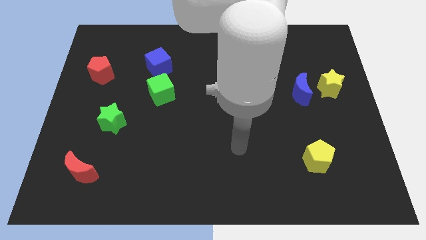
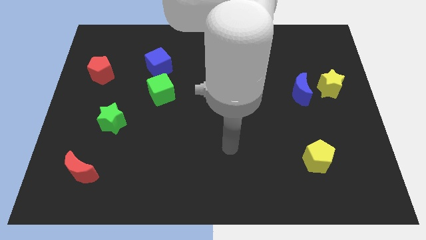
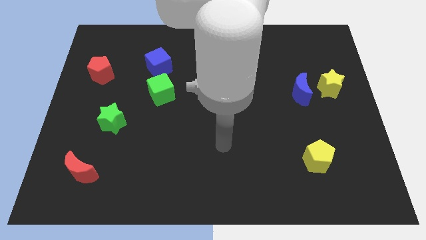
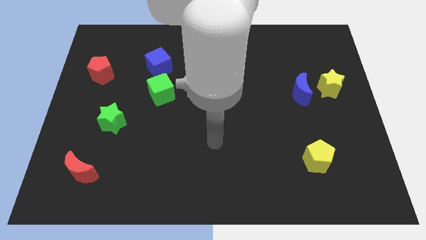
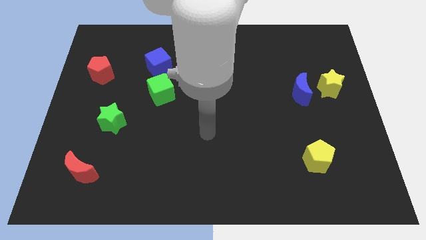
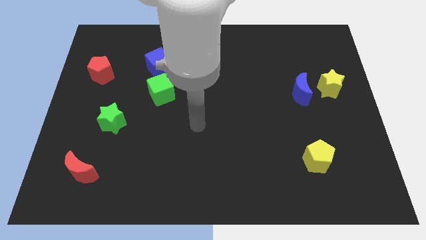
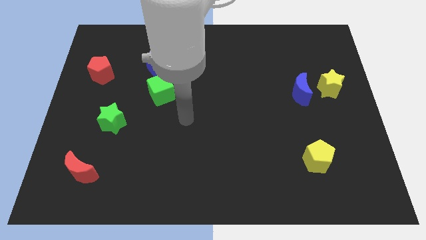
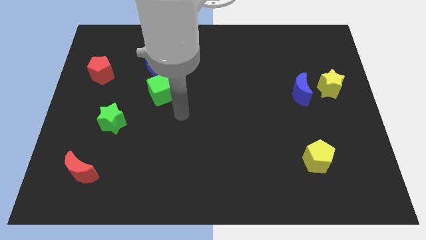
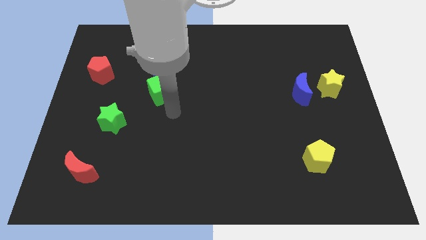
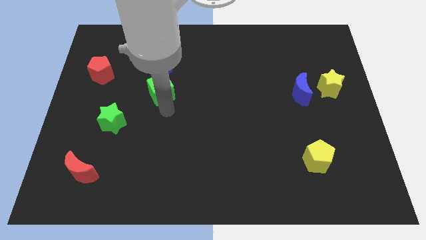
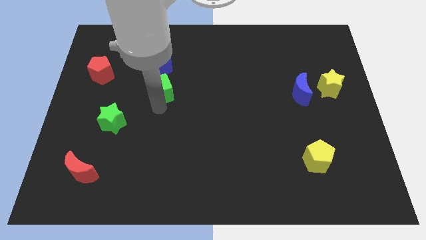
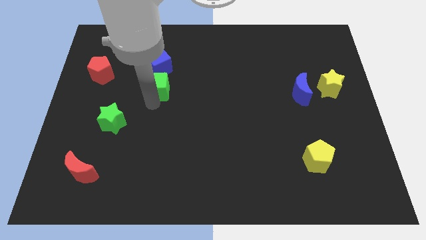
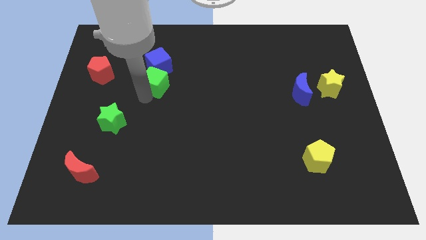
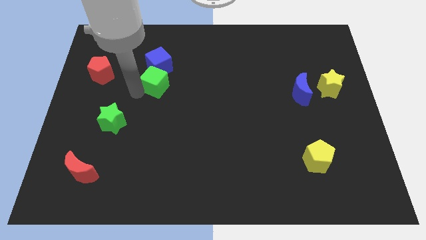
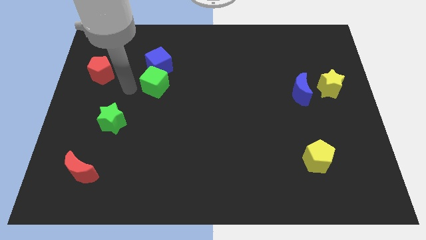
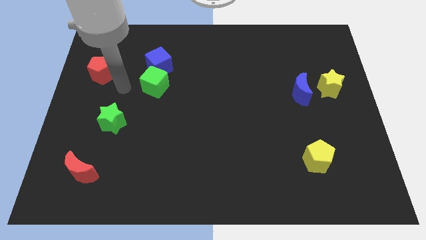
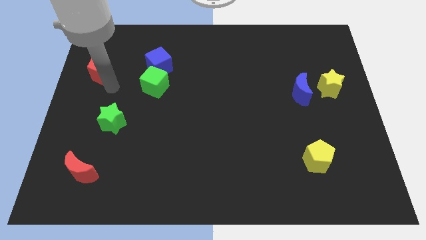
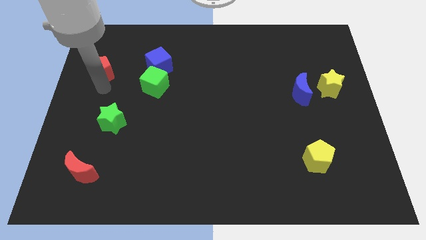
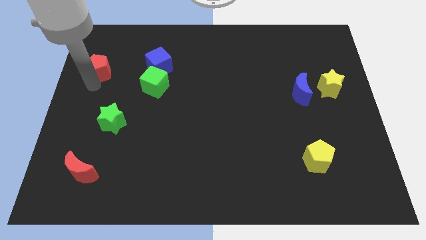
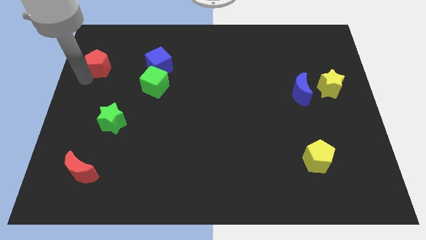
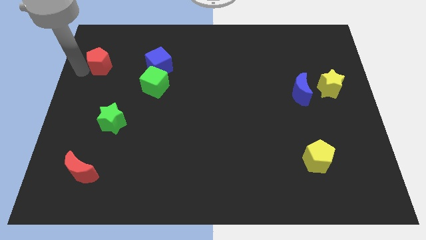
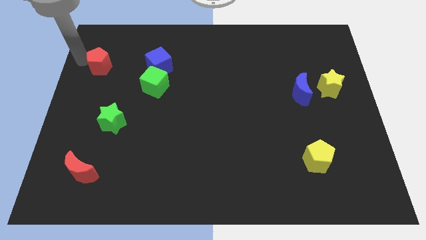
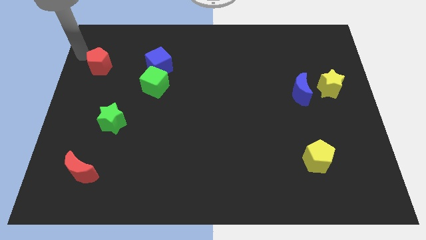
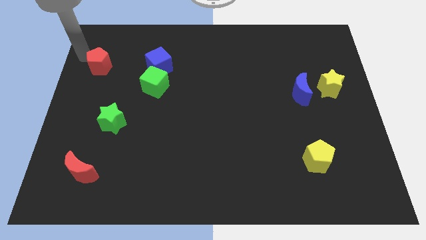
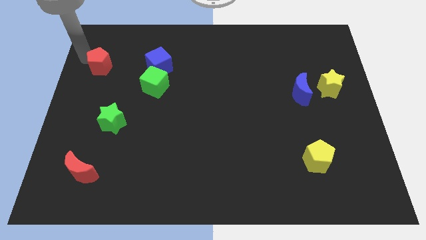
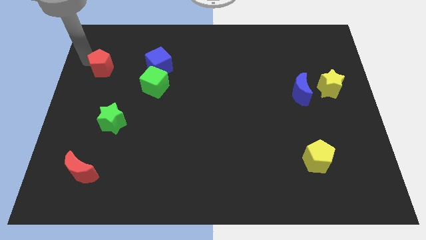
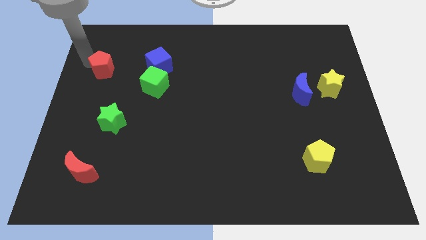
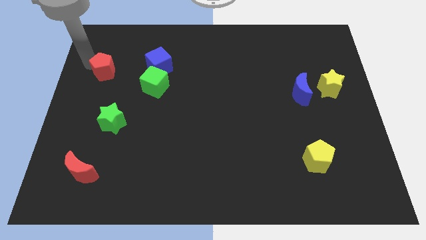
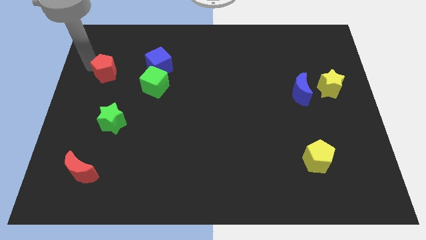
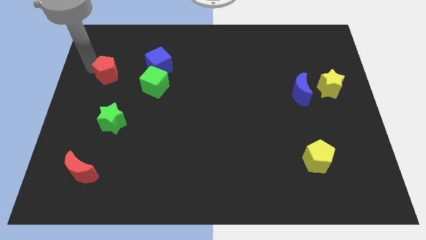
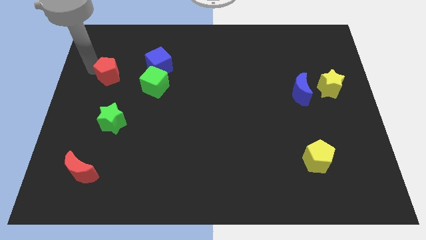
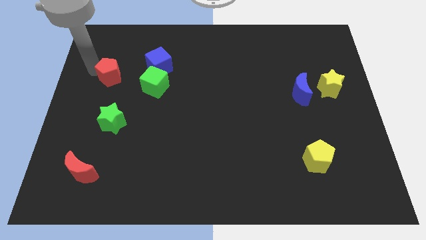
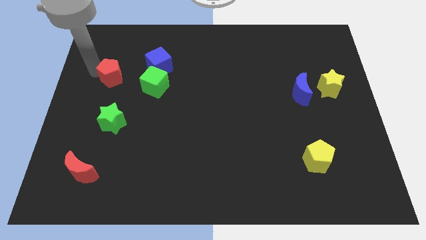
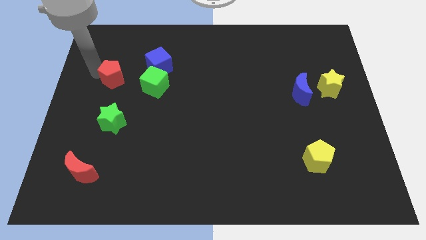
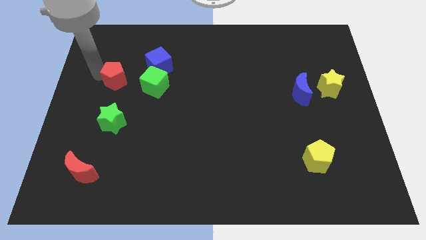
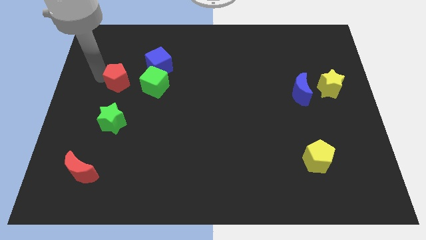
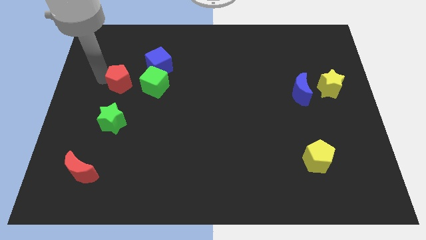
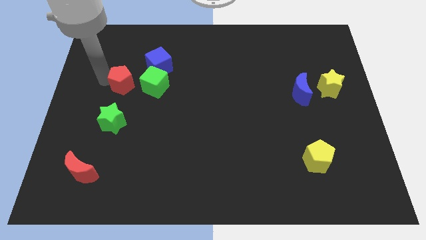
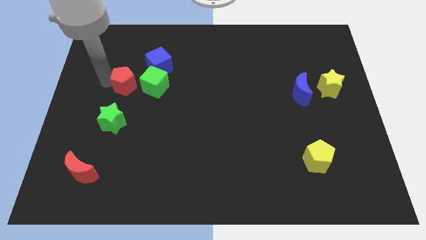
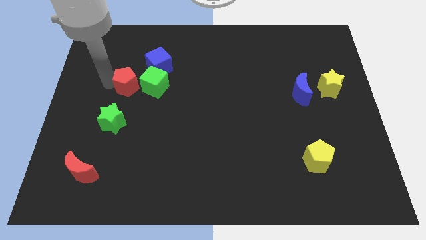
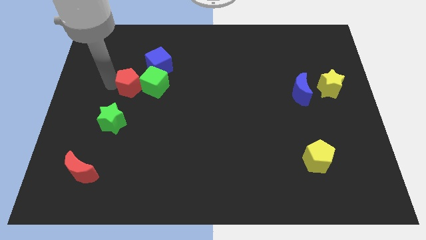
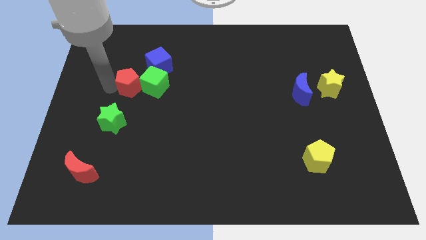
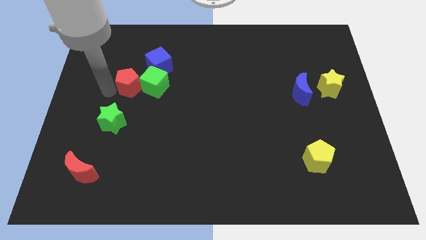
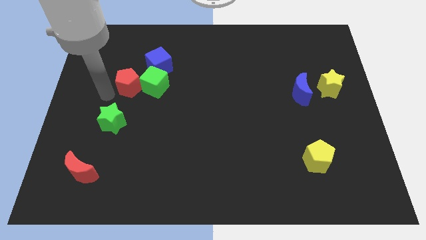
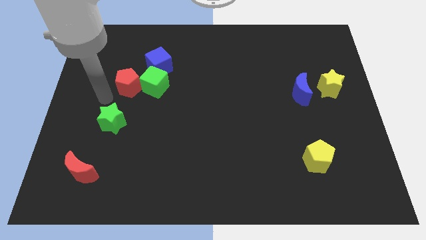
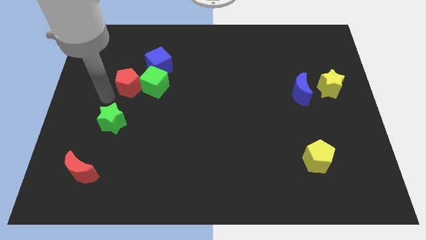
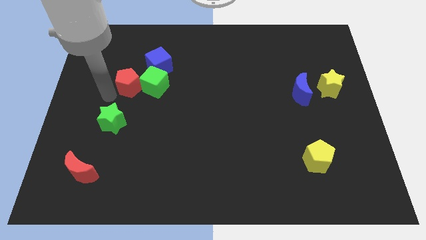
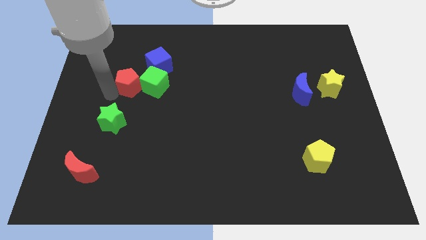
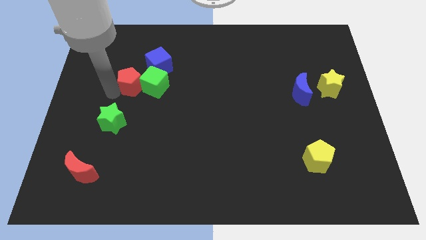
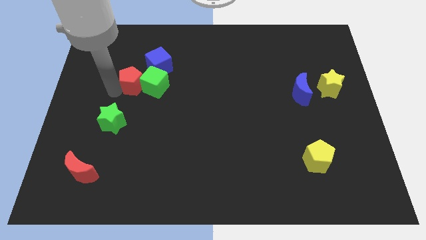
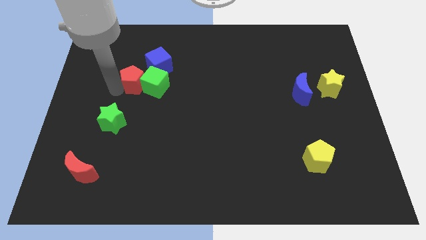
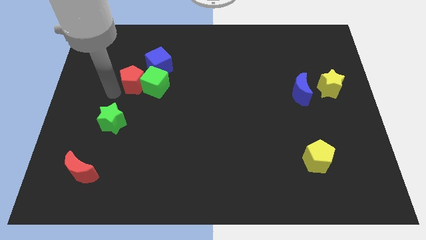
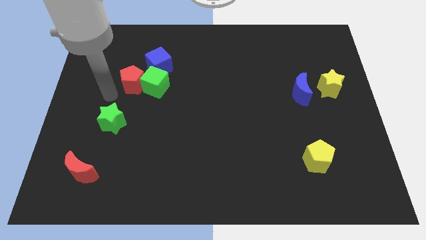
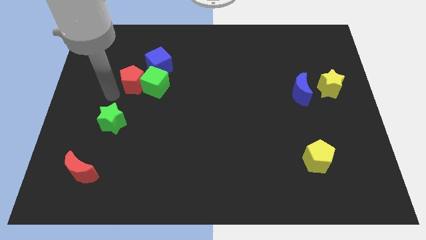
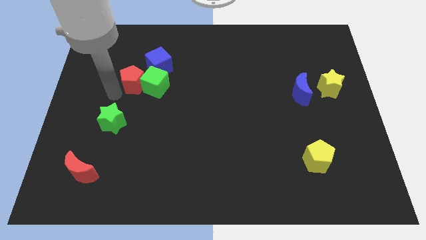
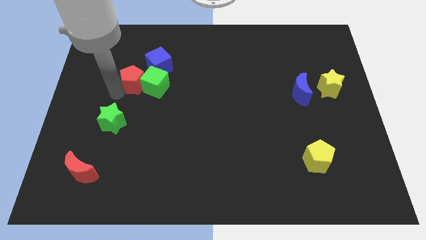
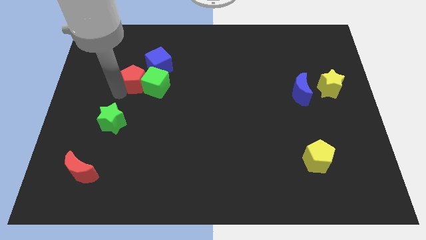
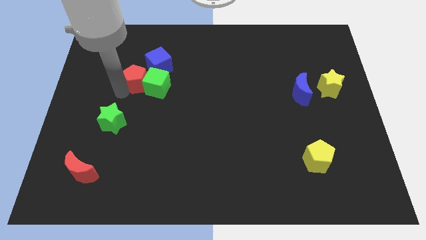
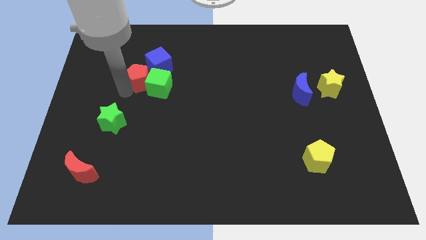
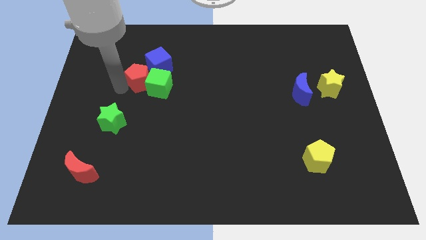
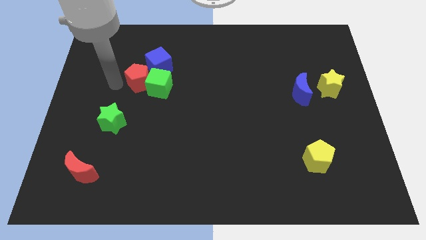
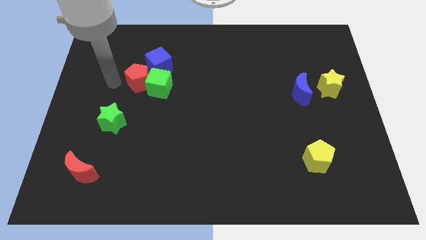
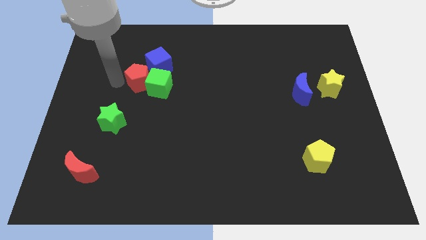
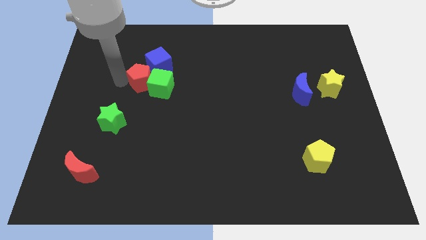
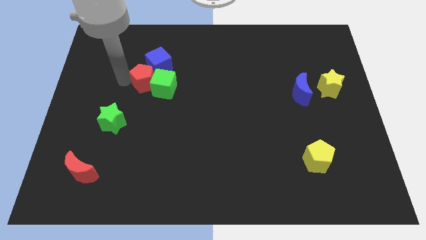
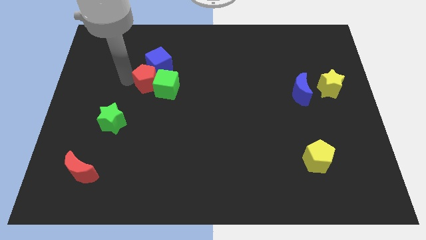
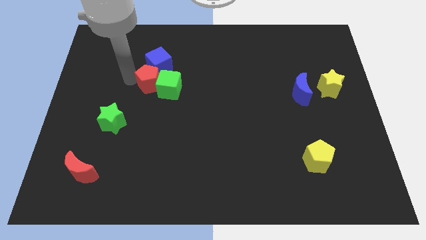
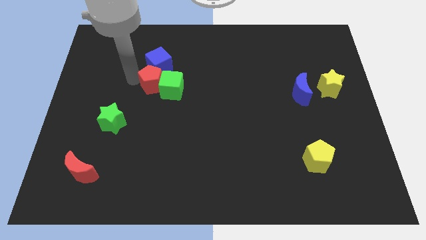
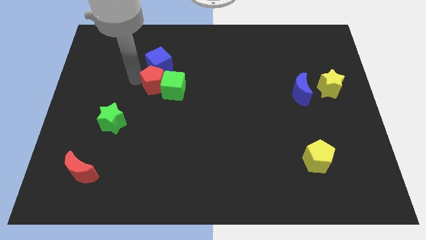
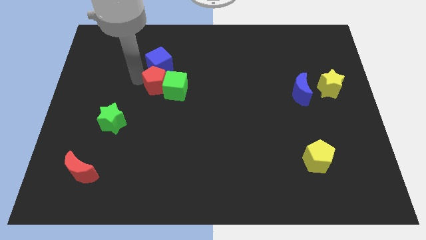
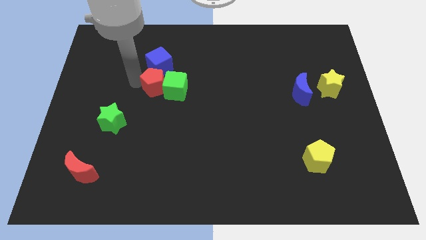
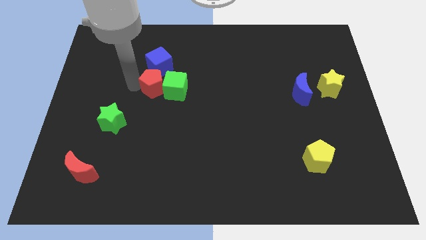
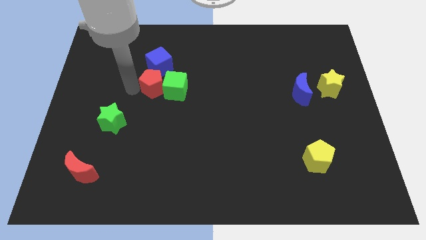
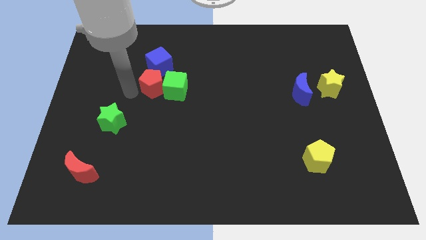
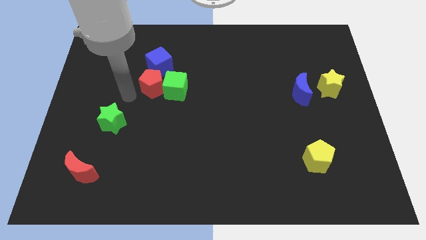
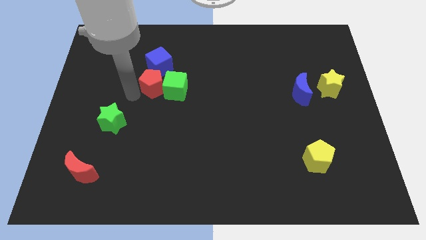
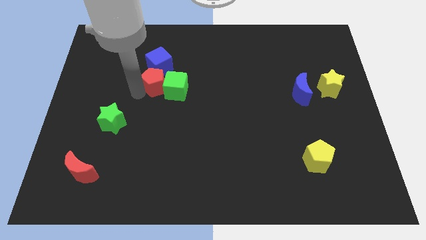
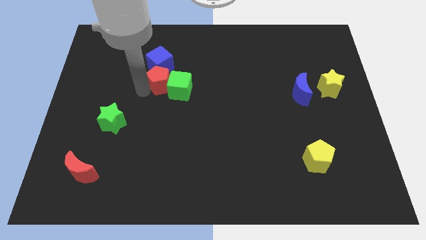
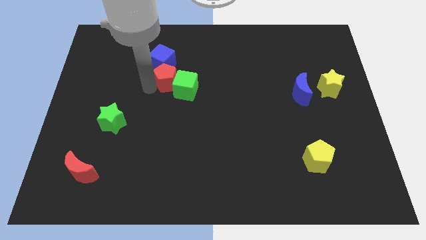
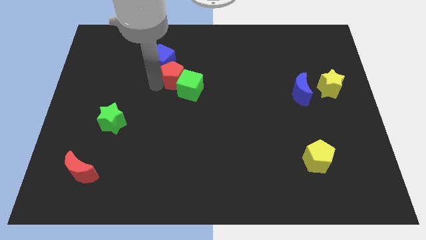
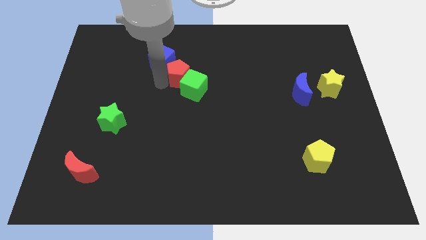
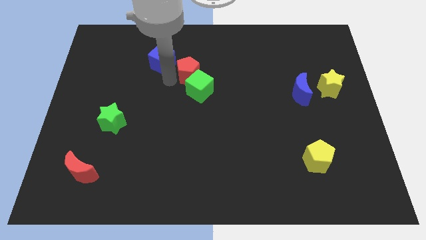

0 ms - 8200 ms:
push the red pentagon to the right

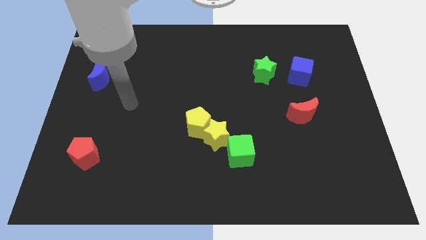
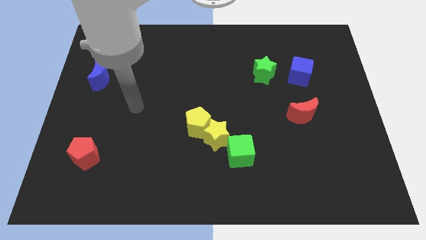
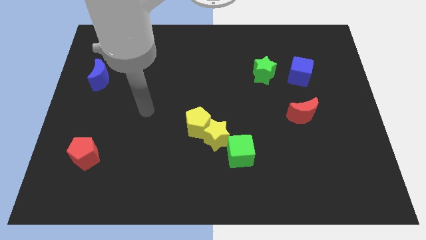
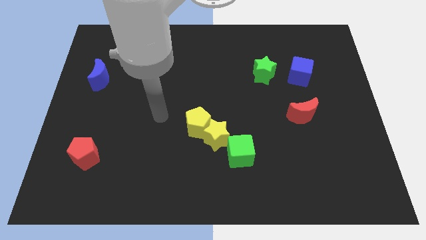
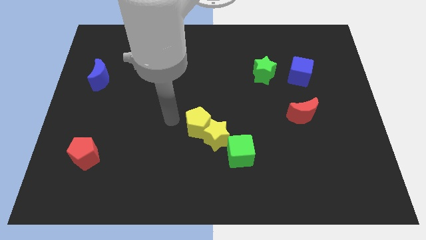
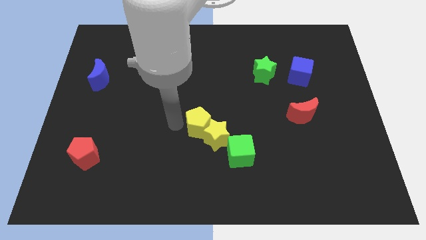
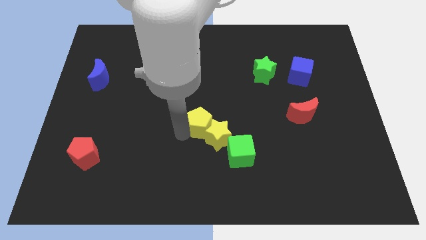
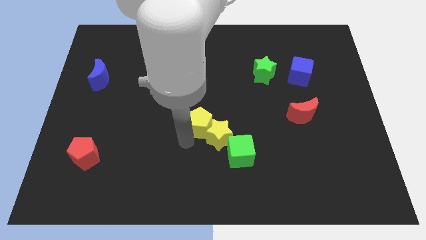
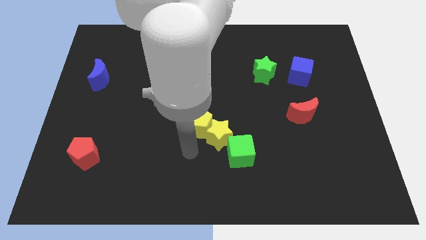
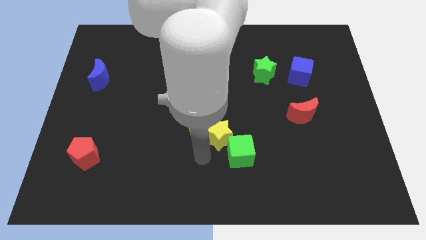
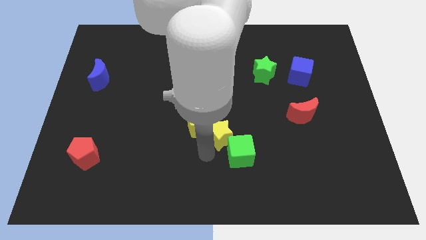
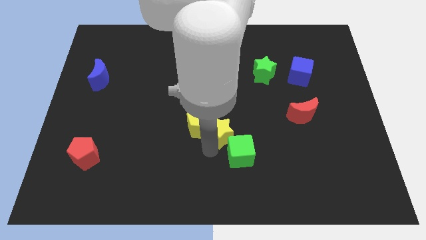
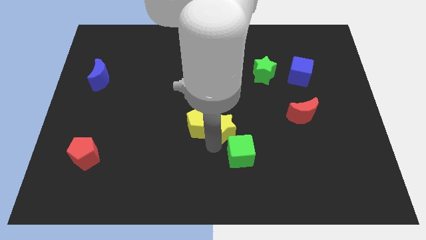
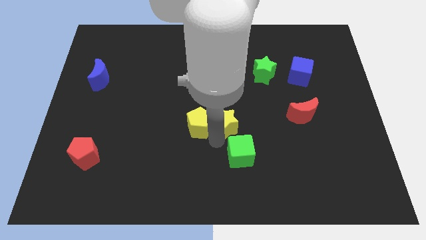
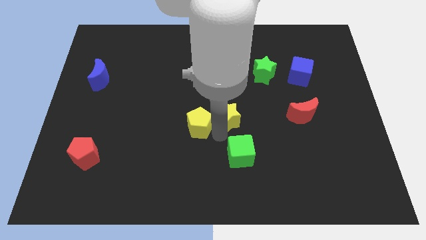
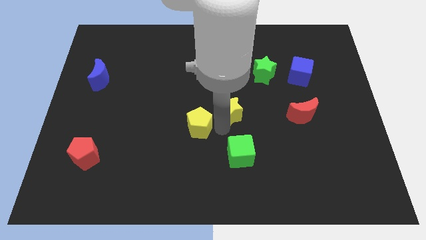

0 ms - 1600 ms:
move the yellow star somewhat up and right
